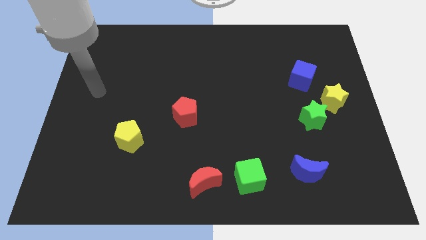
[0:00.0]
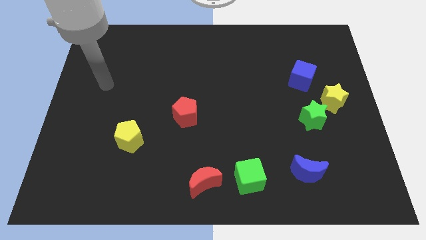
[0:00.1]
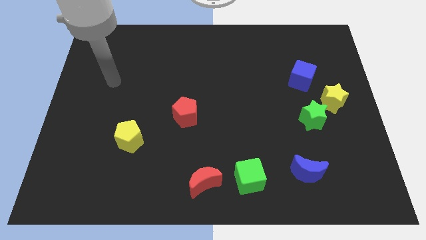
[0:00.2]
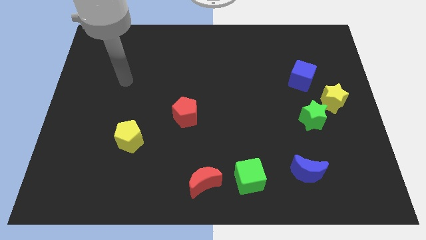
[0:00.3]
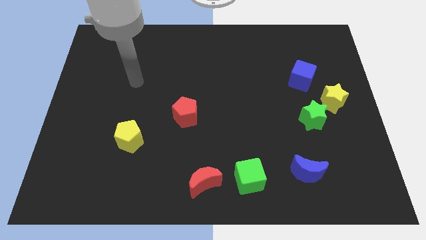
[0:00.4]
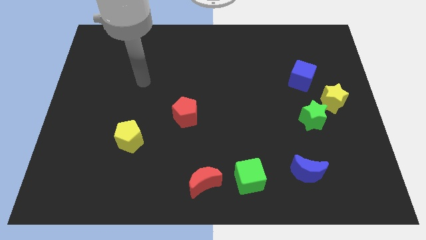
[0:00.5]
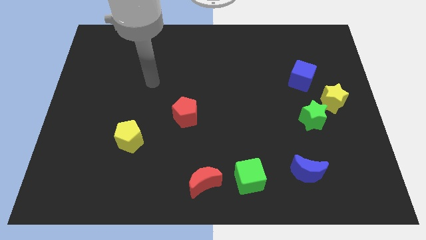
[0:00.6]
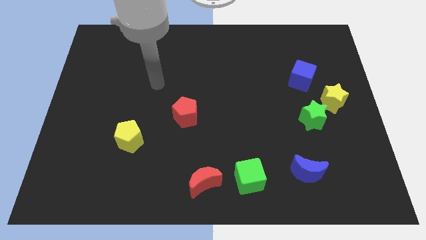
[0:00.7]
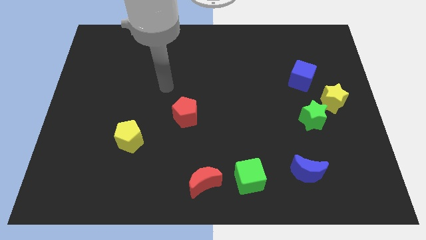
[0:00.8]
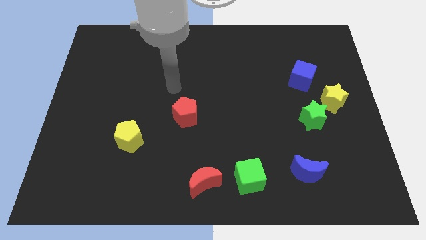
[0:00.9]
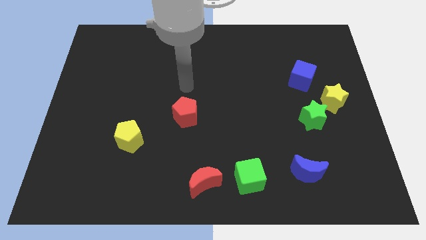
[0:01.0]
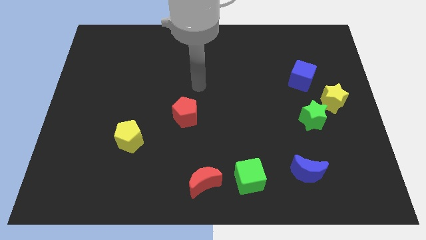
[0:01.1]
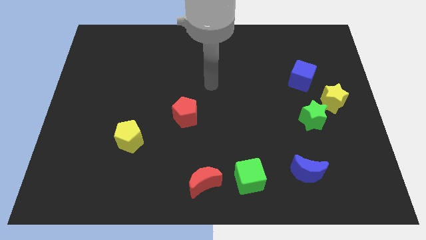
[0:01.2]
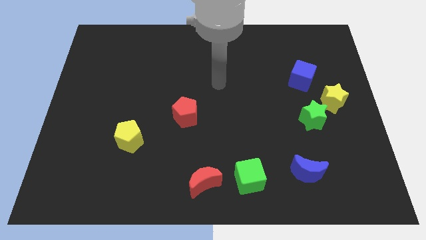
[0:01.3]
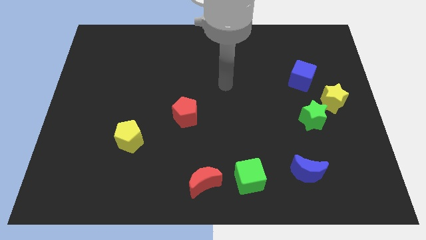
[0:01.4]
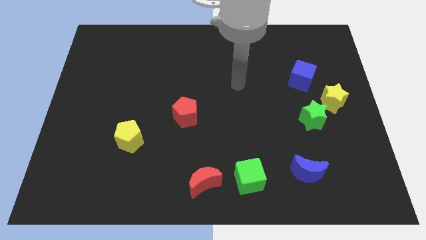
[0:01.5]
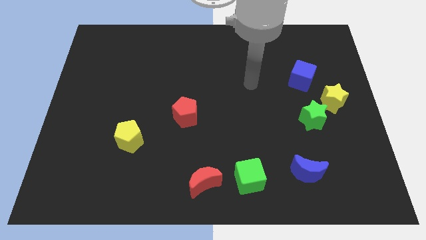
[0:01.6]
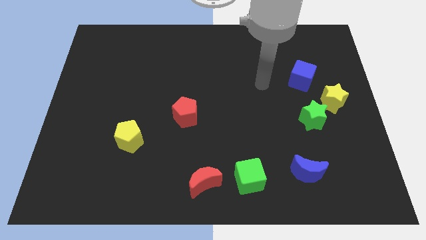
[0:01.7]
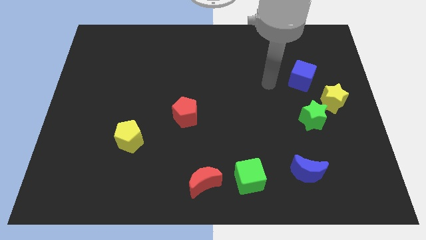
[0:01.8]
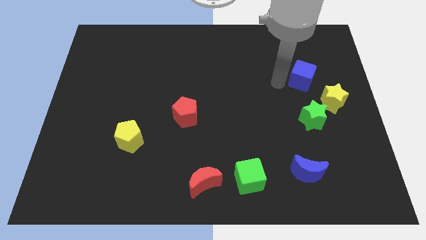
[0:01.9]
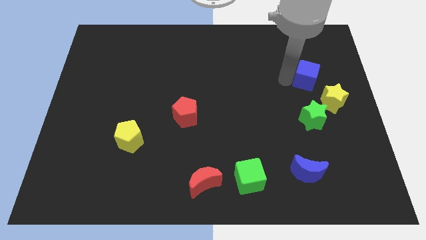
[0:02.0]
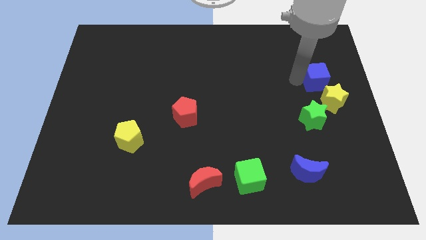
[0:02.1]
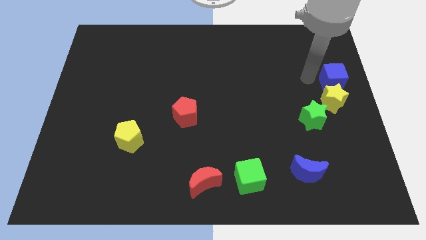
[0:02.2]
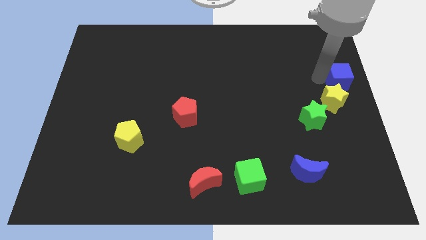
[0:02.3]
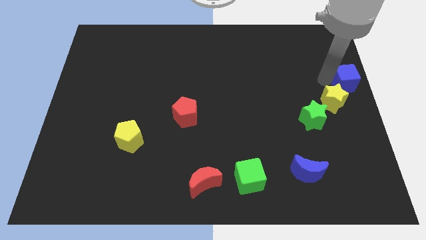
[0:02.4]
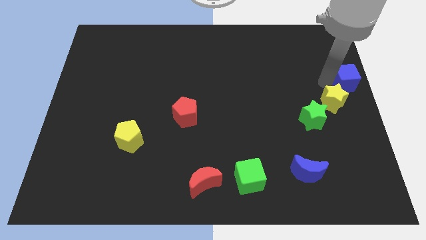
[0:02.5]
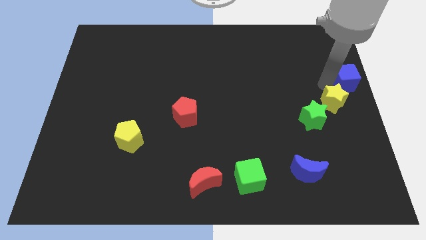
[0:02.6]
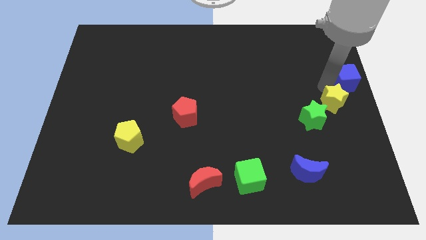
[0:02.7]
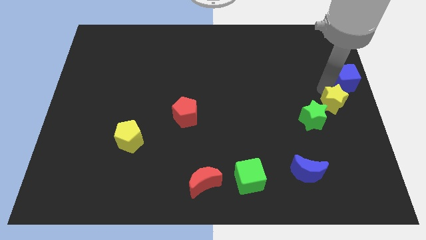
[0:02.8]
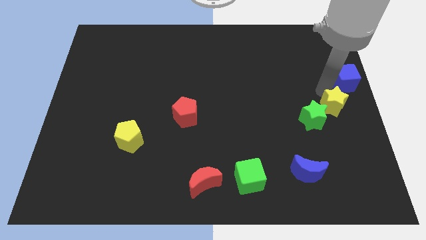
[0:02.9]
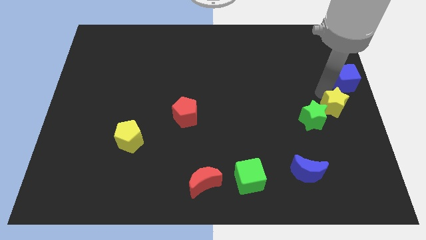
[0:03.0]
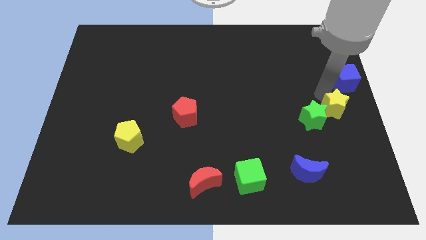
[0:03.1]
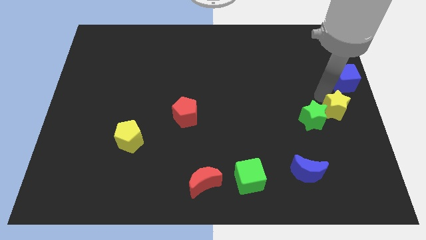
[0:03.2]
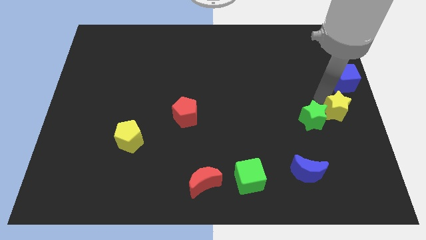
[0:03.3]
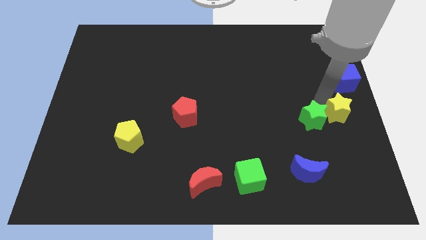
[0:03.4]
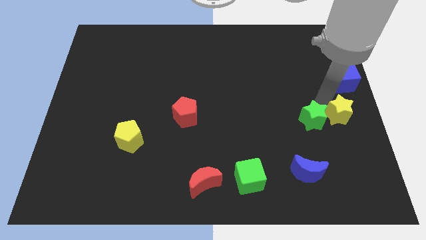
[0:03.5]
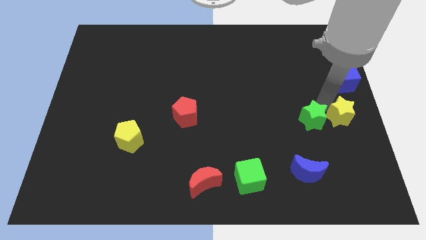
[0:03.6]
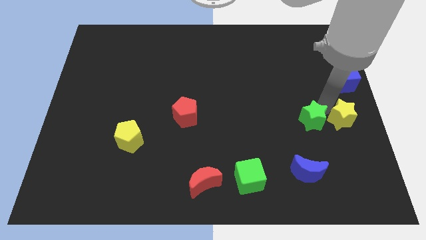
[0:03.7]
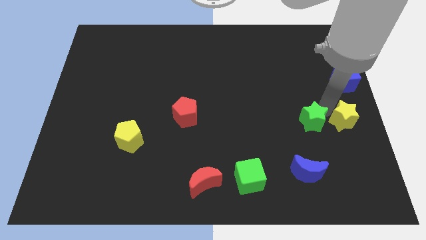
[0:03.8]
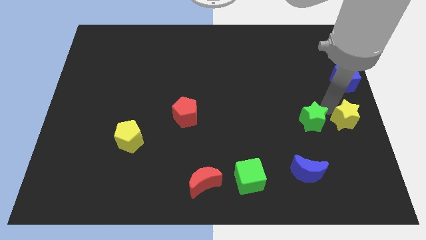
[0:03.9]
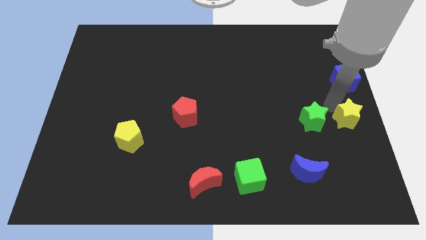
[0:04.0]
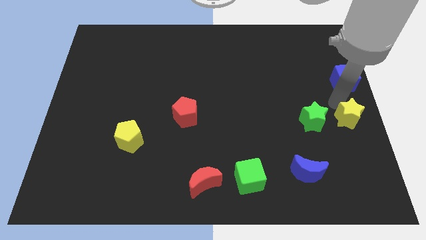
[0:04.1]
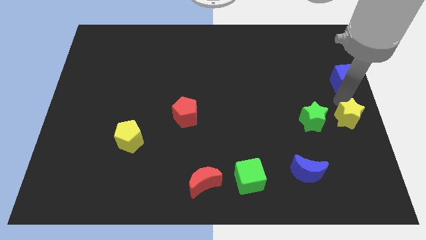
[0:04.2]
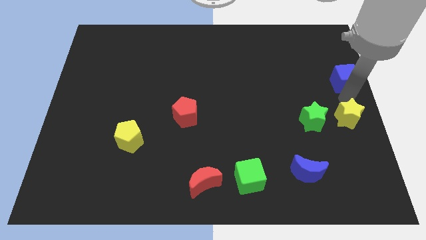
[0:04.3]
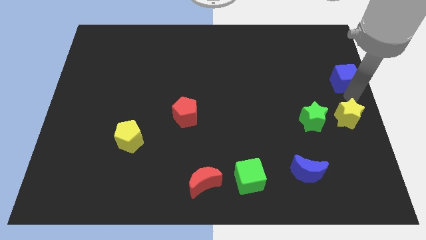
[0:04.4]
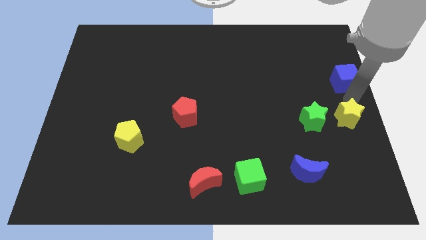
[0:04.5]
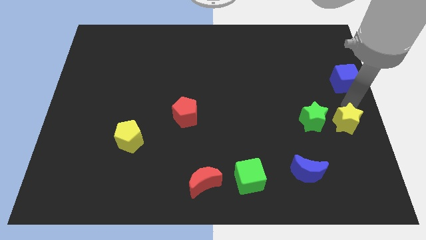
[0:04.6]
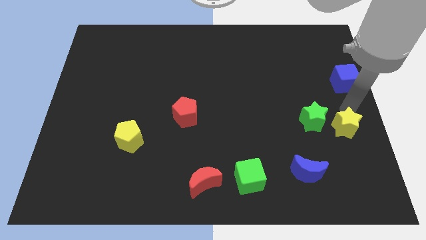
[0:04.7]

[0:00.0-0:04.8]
slide the yellow star downwards slightly

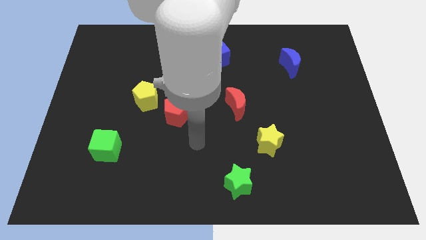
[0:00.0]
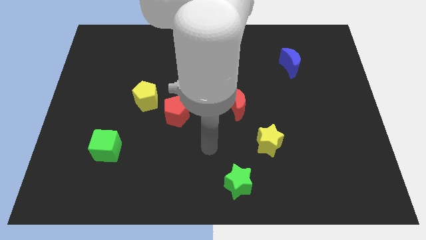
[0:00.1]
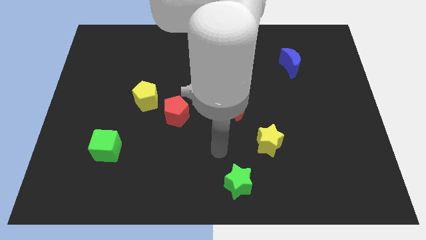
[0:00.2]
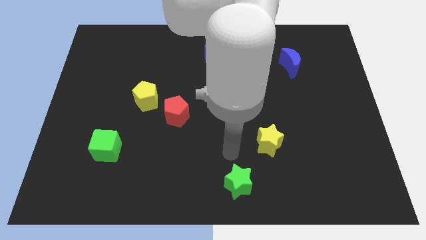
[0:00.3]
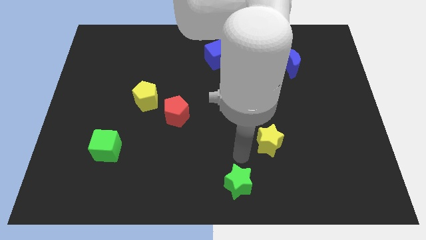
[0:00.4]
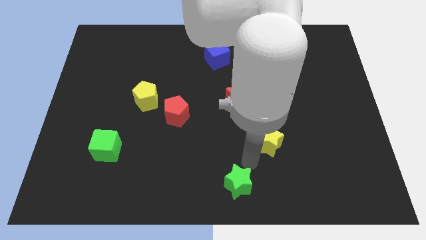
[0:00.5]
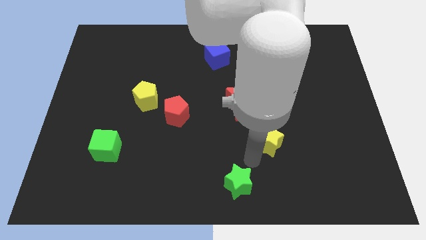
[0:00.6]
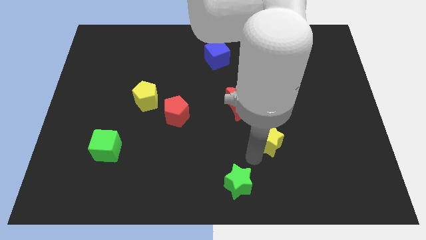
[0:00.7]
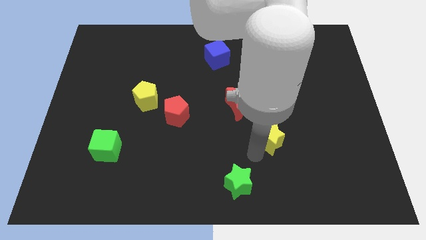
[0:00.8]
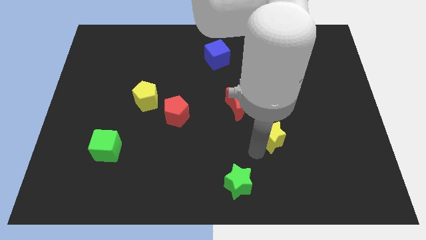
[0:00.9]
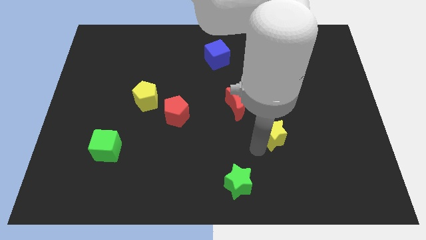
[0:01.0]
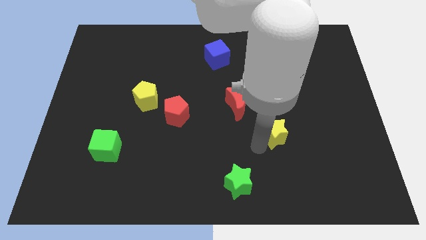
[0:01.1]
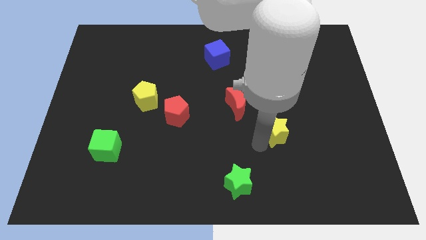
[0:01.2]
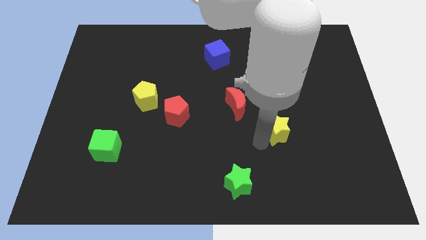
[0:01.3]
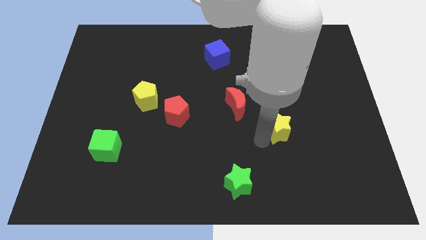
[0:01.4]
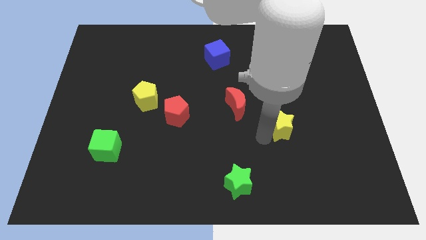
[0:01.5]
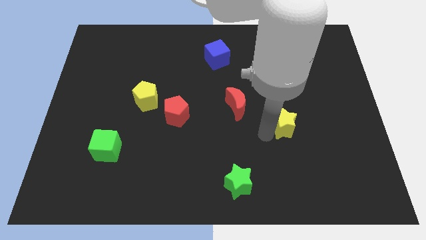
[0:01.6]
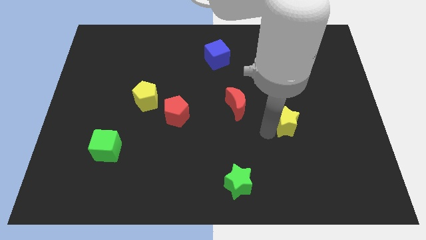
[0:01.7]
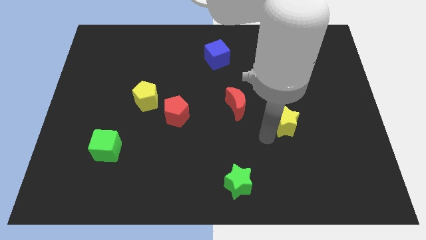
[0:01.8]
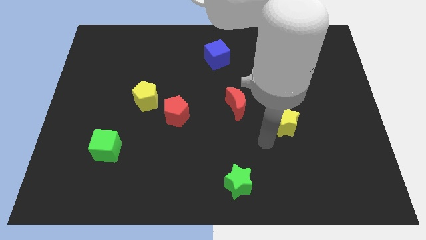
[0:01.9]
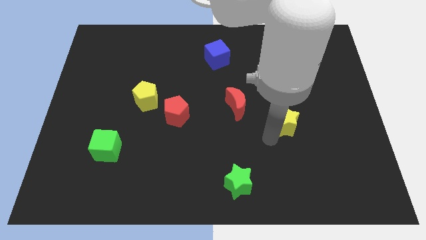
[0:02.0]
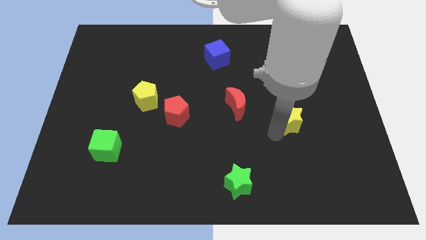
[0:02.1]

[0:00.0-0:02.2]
slightly move the yellow star upwards and to the right

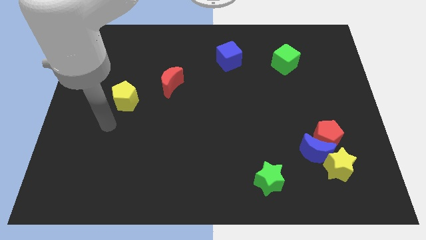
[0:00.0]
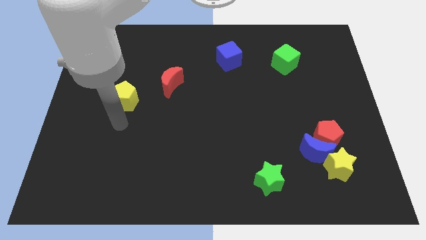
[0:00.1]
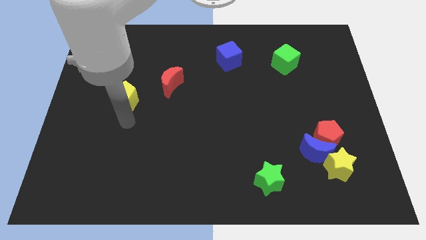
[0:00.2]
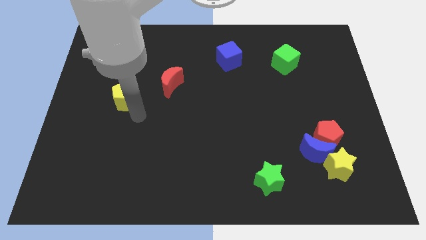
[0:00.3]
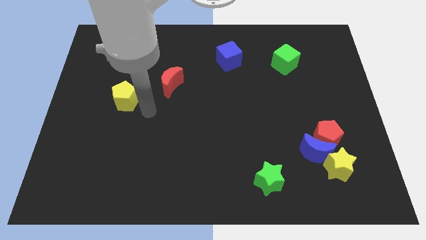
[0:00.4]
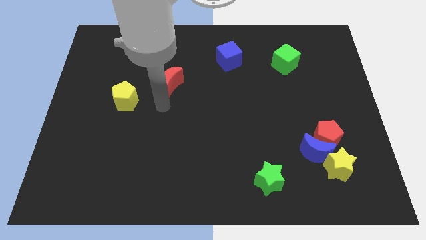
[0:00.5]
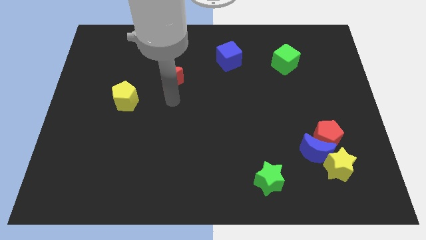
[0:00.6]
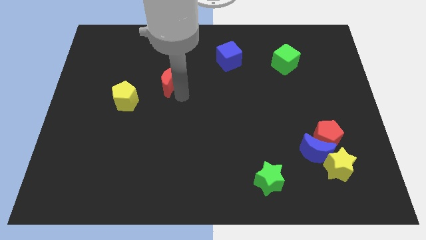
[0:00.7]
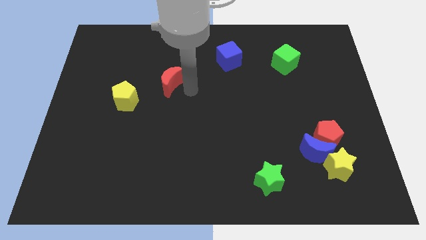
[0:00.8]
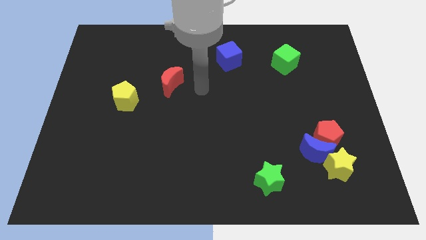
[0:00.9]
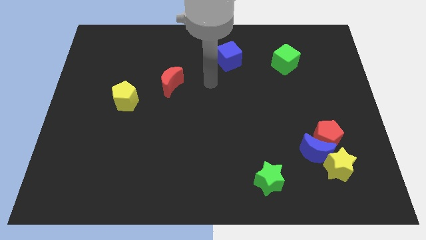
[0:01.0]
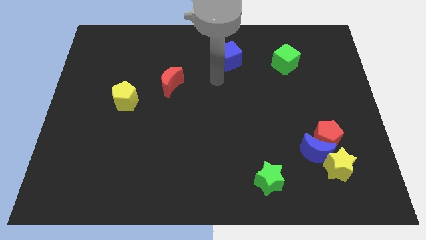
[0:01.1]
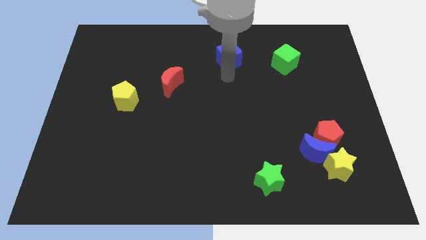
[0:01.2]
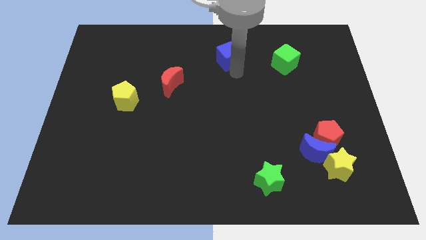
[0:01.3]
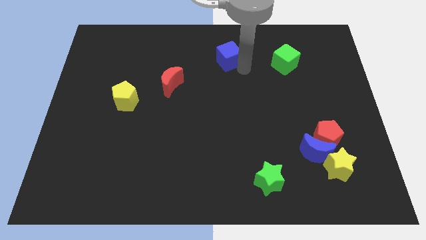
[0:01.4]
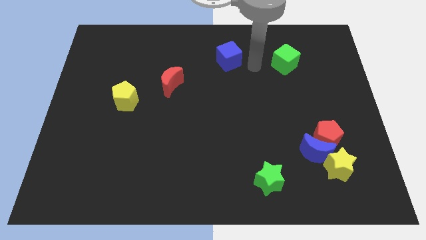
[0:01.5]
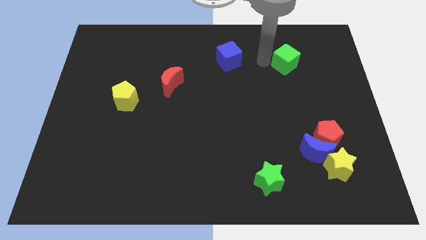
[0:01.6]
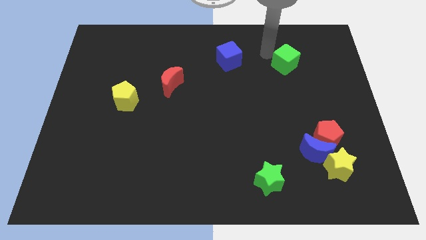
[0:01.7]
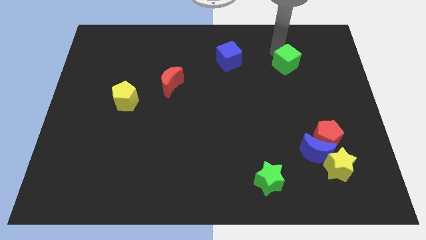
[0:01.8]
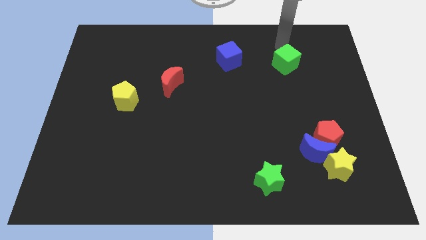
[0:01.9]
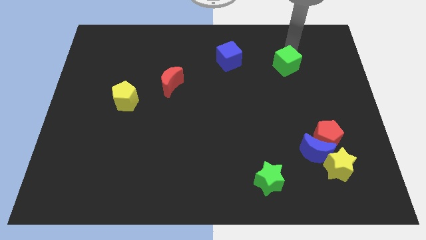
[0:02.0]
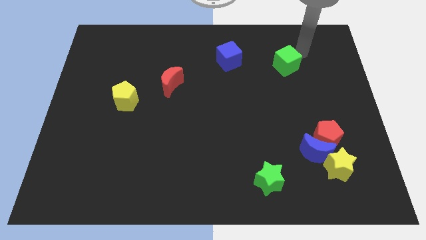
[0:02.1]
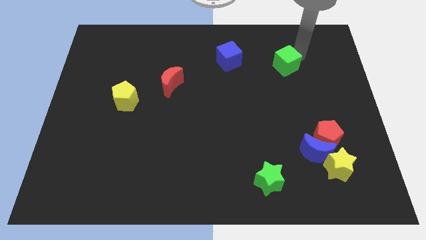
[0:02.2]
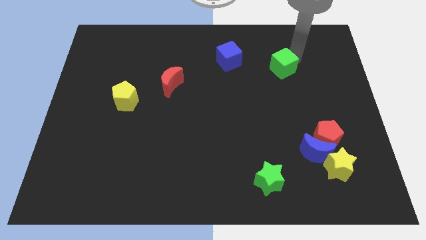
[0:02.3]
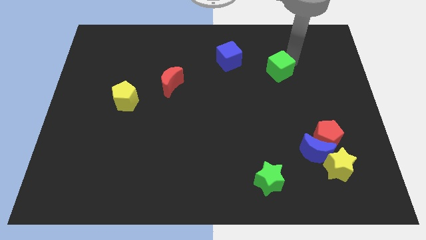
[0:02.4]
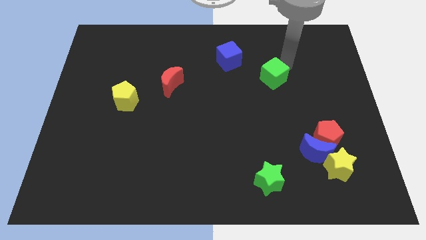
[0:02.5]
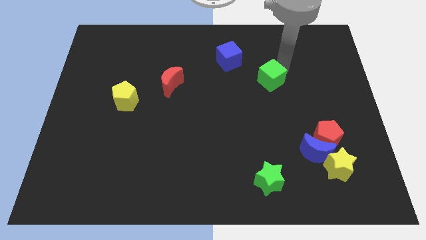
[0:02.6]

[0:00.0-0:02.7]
push the green cube a little diagonally down and to the left
